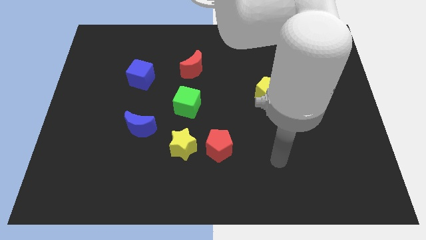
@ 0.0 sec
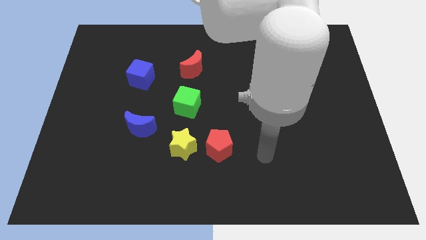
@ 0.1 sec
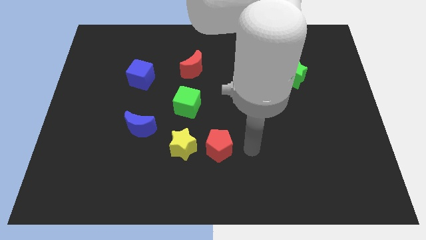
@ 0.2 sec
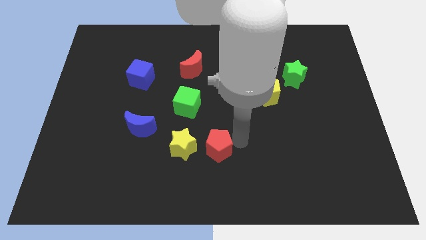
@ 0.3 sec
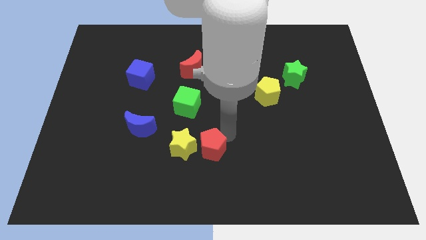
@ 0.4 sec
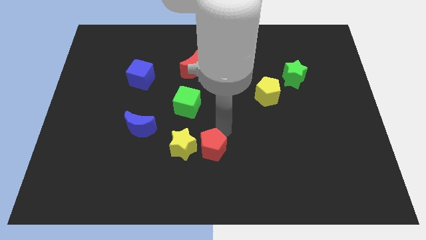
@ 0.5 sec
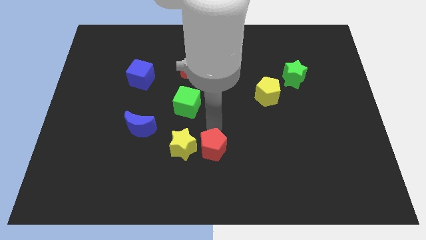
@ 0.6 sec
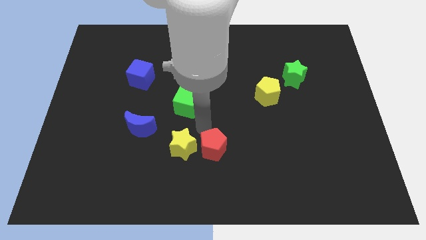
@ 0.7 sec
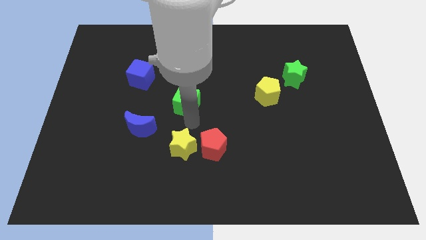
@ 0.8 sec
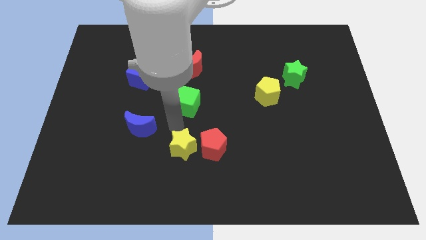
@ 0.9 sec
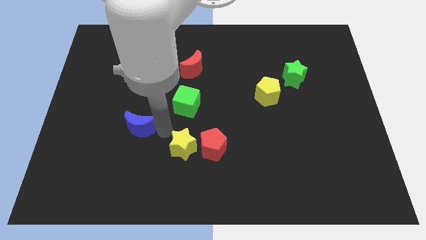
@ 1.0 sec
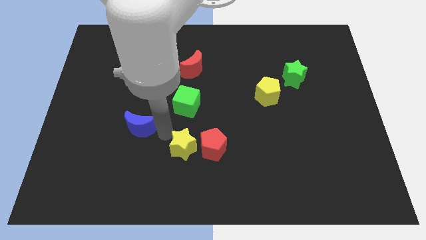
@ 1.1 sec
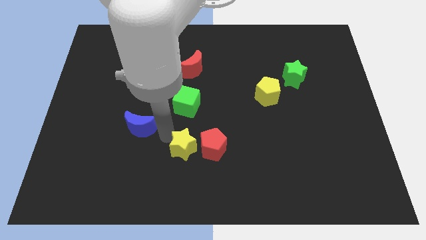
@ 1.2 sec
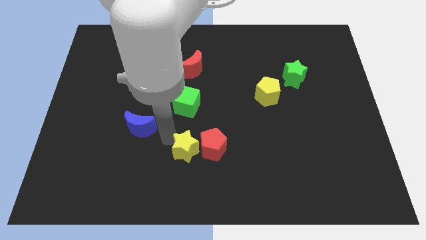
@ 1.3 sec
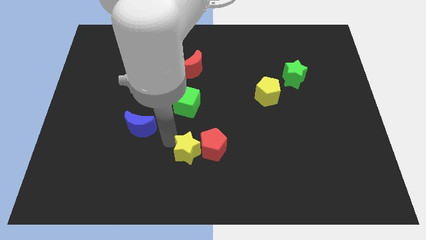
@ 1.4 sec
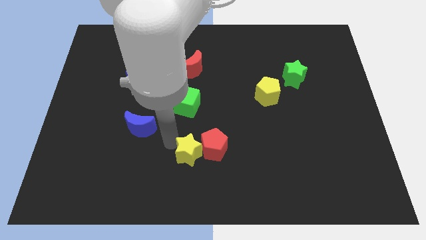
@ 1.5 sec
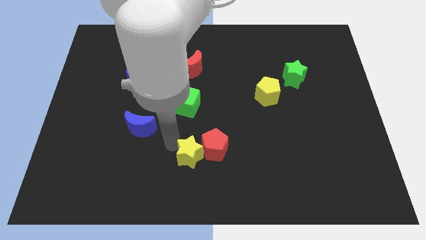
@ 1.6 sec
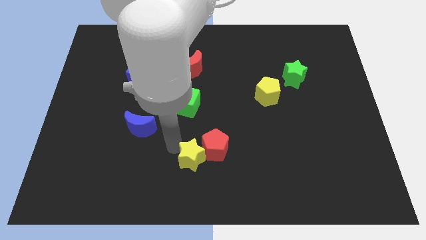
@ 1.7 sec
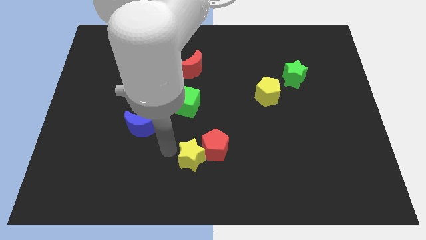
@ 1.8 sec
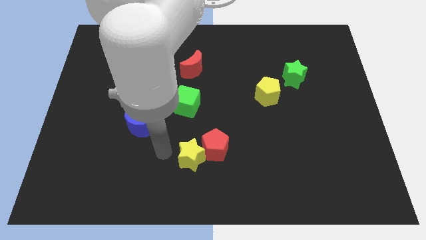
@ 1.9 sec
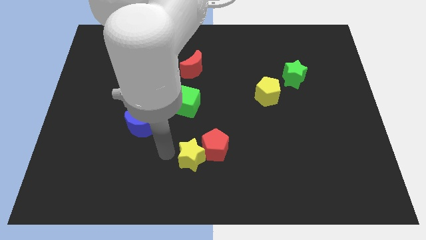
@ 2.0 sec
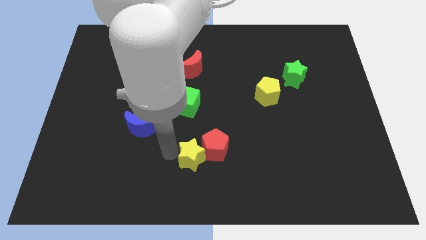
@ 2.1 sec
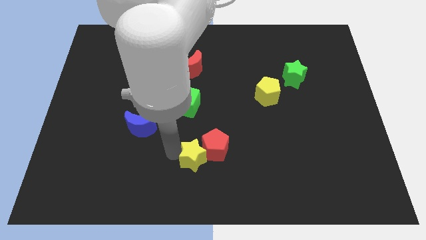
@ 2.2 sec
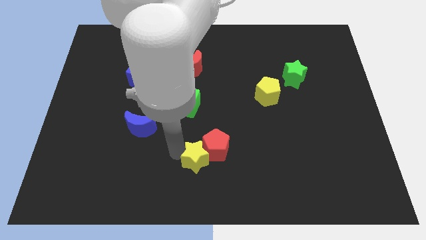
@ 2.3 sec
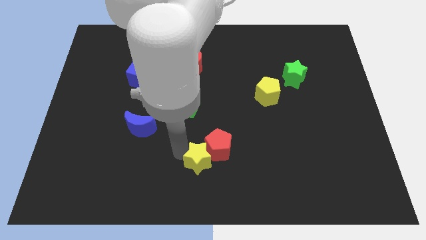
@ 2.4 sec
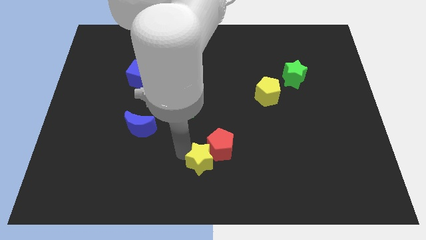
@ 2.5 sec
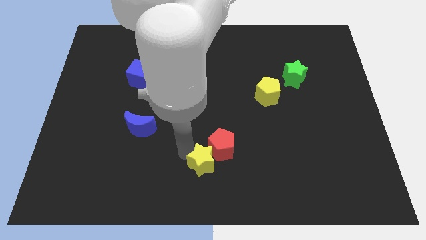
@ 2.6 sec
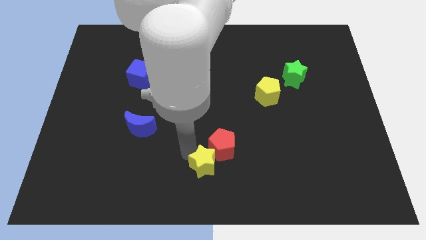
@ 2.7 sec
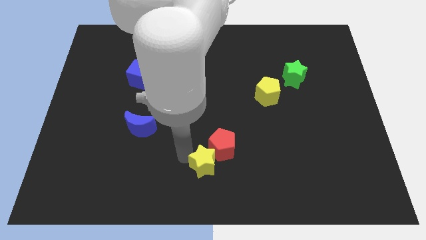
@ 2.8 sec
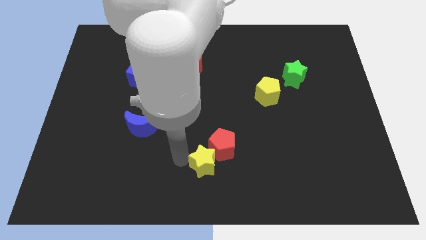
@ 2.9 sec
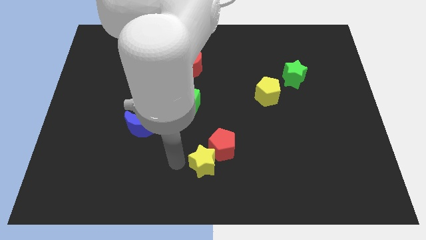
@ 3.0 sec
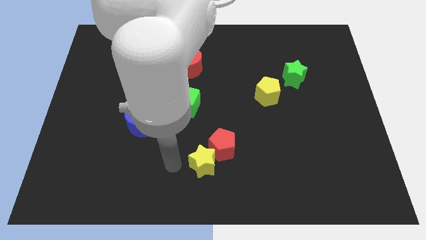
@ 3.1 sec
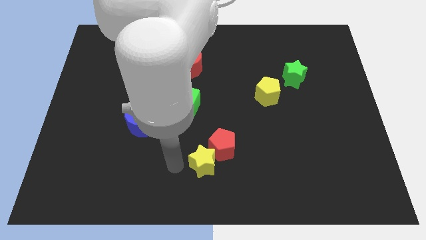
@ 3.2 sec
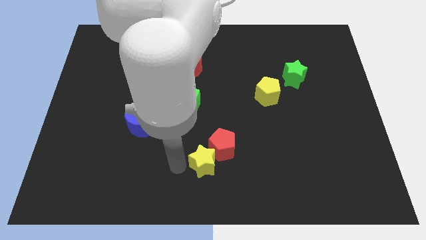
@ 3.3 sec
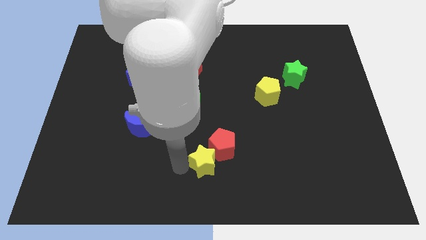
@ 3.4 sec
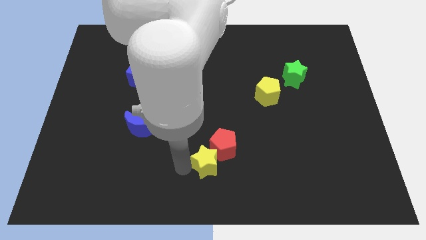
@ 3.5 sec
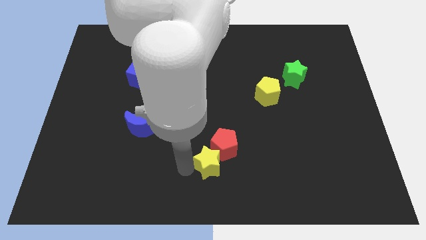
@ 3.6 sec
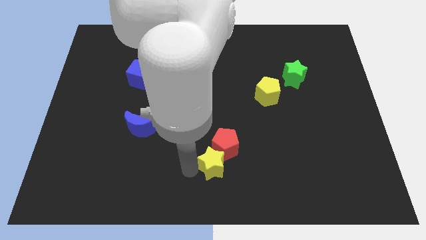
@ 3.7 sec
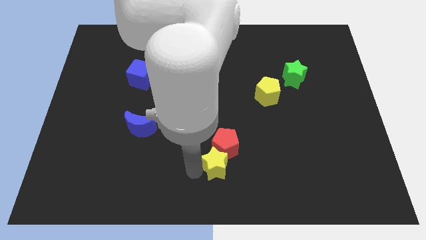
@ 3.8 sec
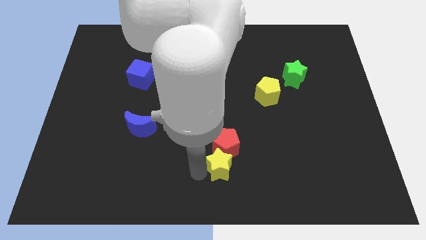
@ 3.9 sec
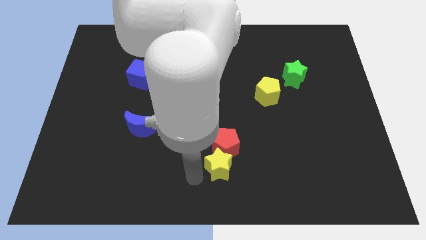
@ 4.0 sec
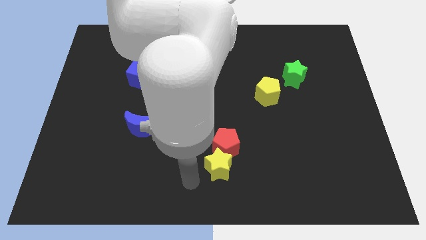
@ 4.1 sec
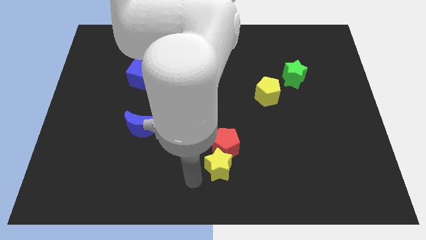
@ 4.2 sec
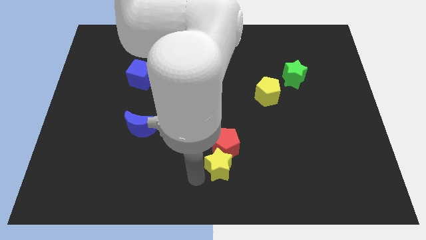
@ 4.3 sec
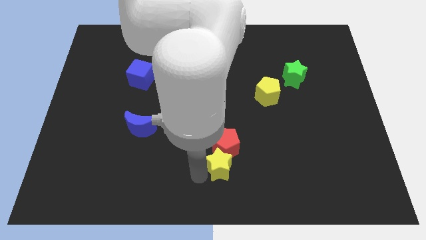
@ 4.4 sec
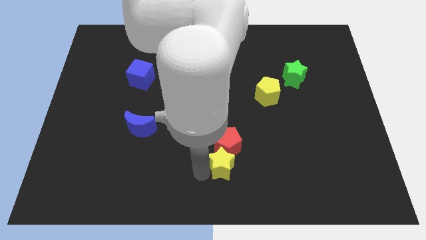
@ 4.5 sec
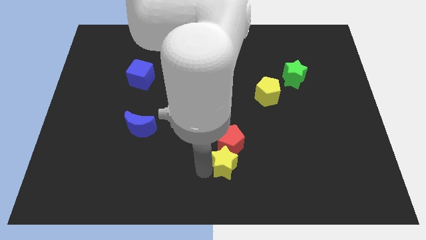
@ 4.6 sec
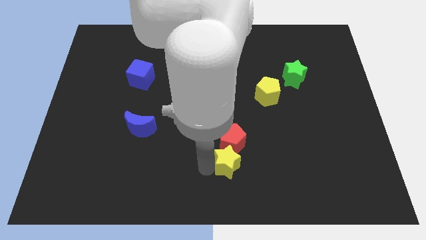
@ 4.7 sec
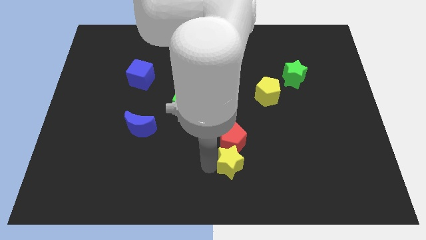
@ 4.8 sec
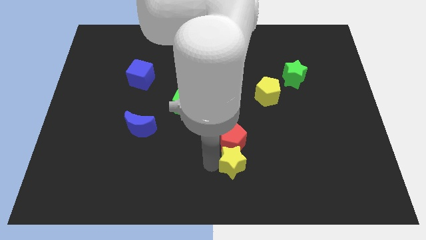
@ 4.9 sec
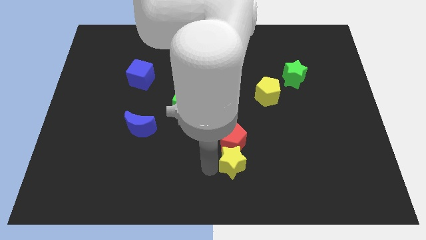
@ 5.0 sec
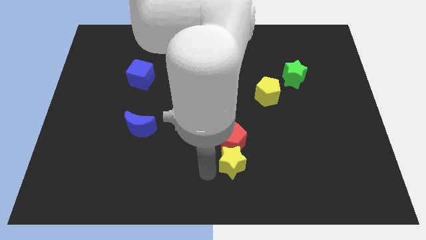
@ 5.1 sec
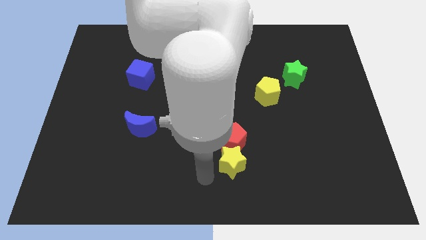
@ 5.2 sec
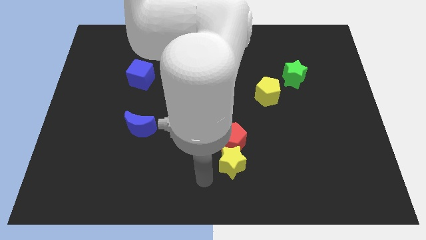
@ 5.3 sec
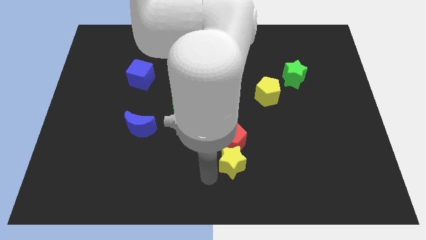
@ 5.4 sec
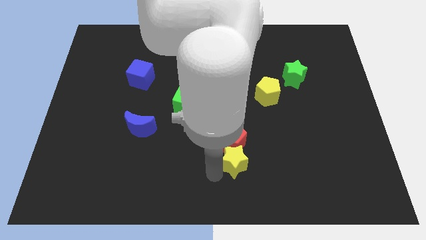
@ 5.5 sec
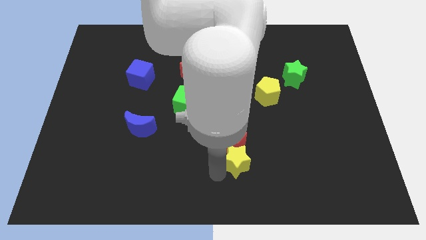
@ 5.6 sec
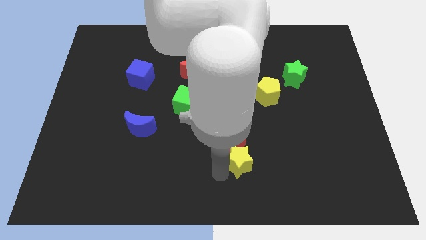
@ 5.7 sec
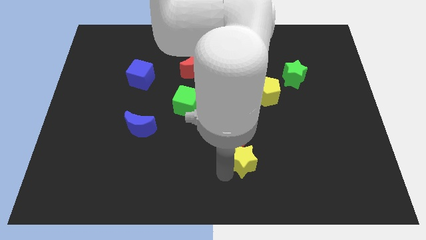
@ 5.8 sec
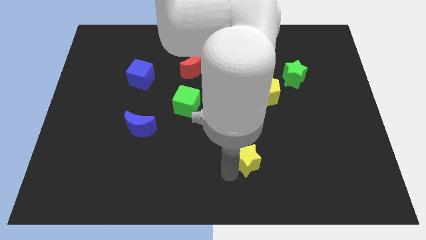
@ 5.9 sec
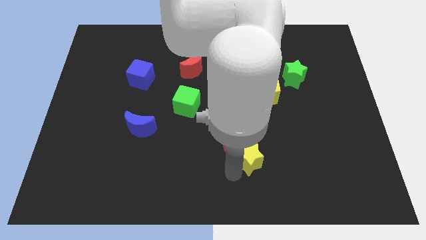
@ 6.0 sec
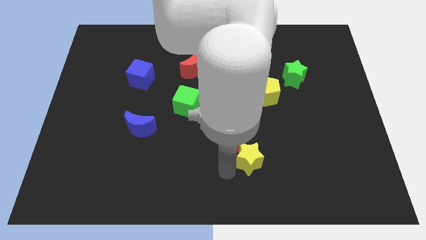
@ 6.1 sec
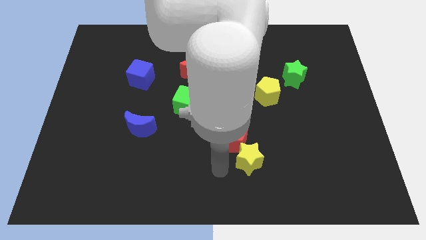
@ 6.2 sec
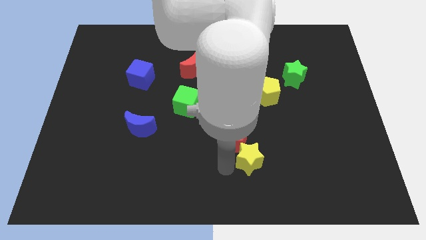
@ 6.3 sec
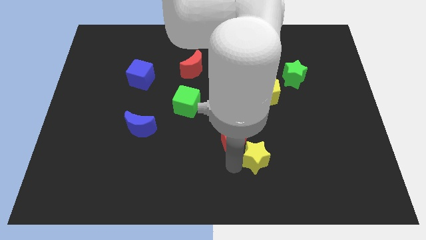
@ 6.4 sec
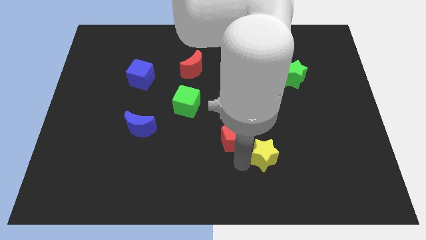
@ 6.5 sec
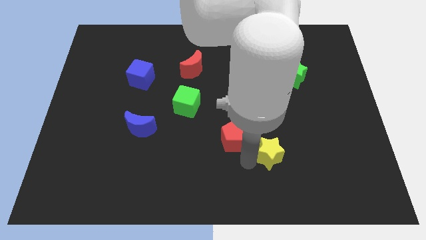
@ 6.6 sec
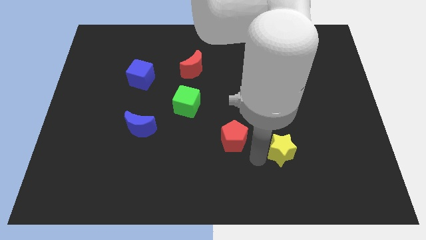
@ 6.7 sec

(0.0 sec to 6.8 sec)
move the yellow star to the right

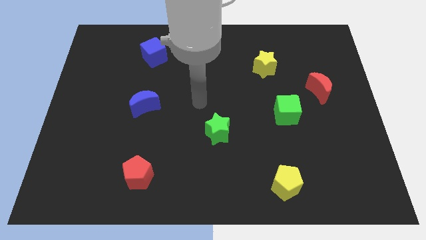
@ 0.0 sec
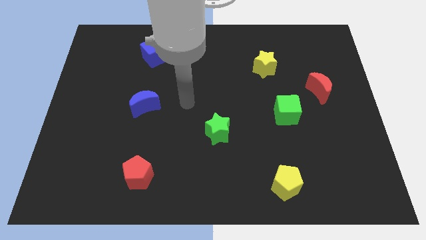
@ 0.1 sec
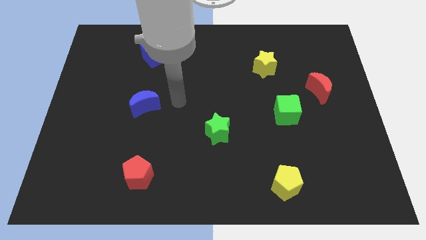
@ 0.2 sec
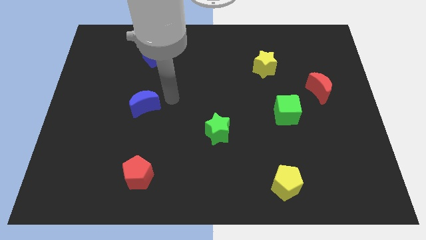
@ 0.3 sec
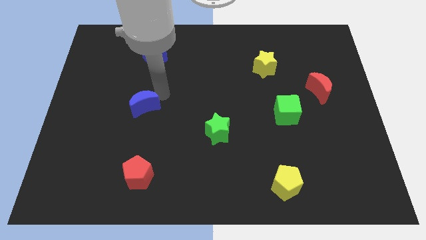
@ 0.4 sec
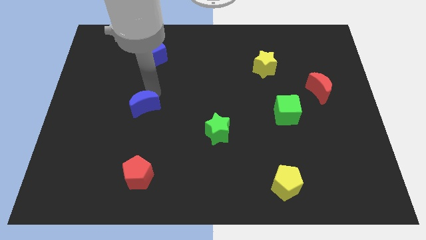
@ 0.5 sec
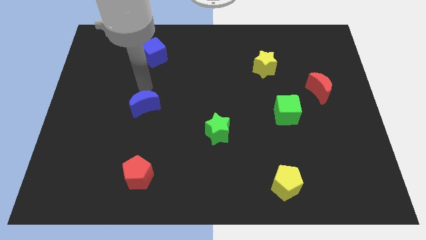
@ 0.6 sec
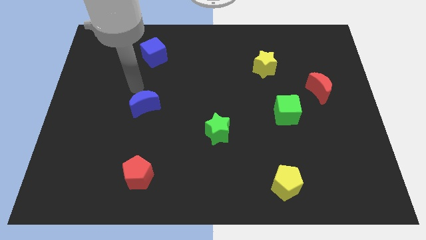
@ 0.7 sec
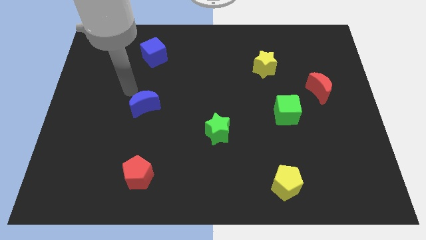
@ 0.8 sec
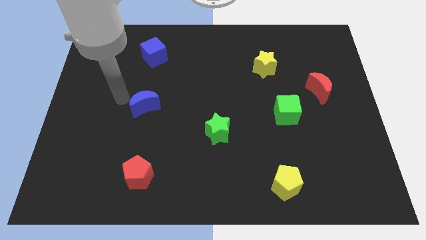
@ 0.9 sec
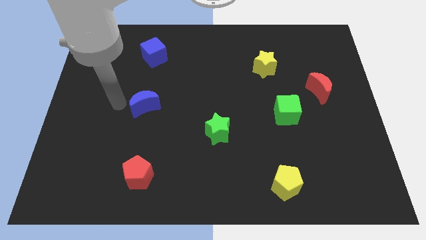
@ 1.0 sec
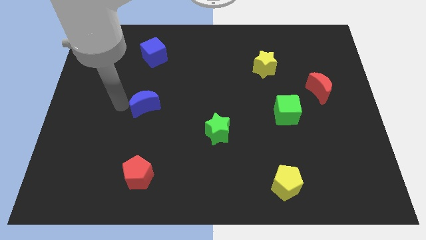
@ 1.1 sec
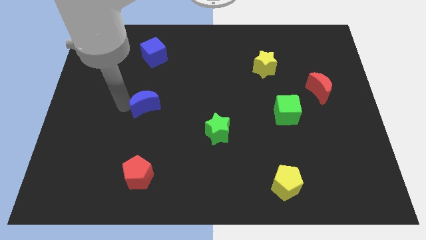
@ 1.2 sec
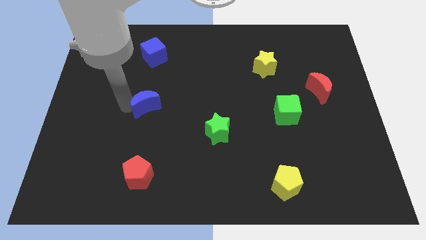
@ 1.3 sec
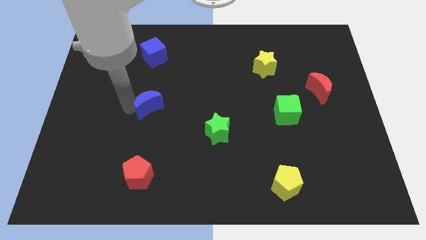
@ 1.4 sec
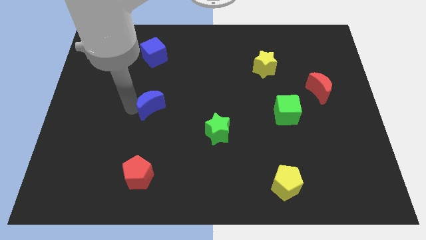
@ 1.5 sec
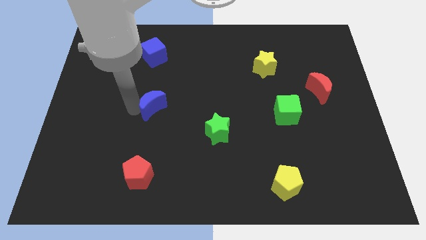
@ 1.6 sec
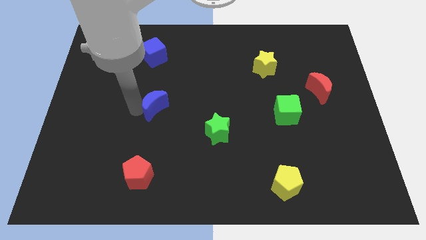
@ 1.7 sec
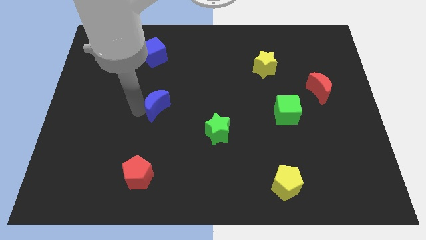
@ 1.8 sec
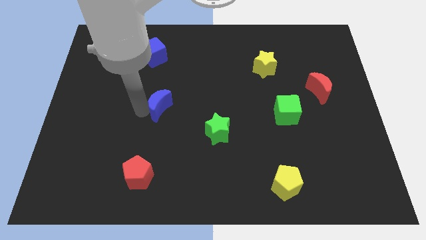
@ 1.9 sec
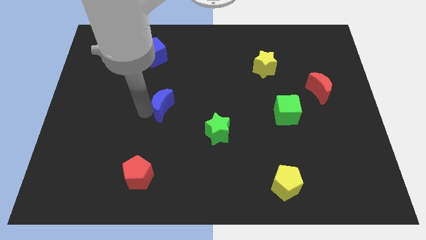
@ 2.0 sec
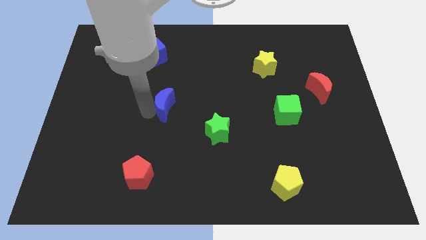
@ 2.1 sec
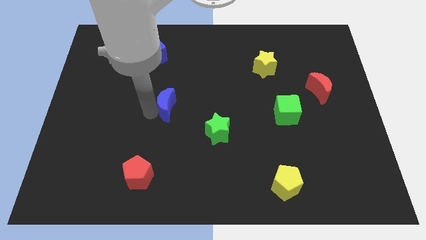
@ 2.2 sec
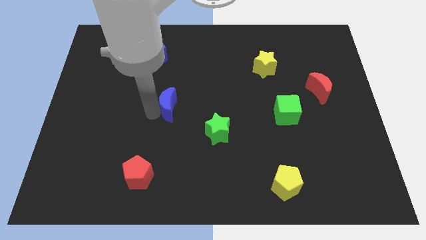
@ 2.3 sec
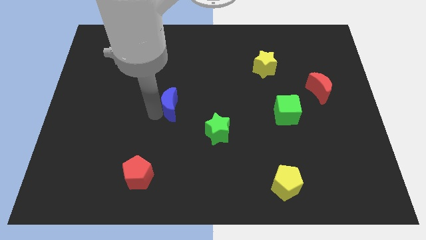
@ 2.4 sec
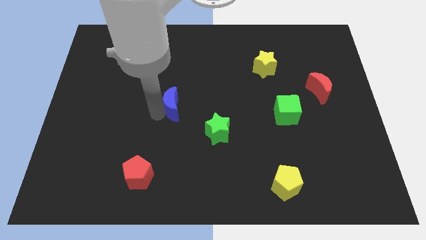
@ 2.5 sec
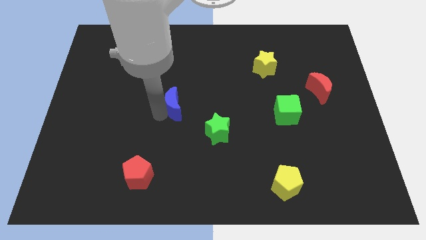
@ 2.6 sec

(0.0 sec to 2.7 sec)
slightly push the blue moon right
